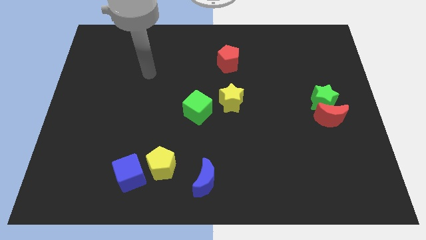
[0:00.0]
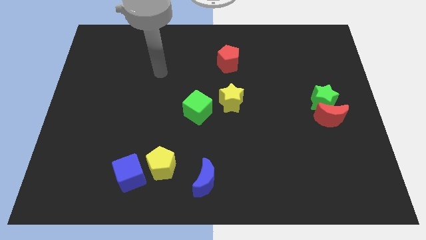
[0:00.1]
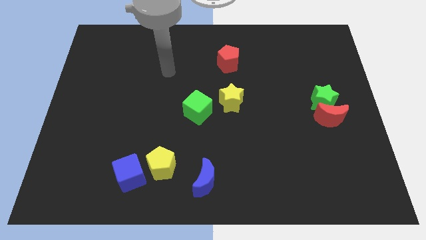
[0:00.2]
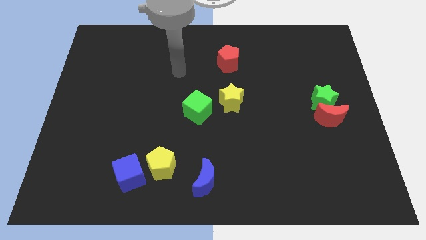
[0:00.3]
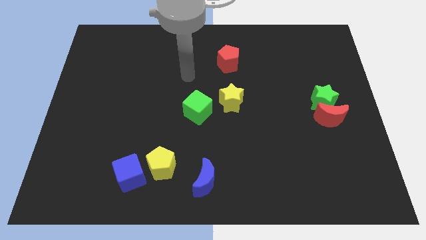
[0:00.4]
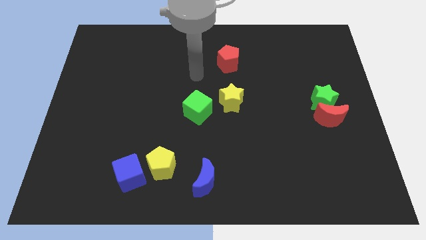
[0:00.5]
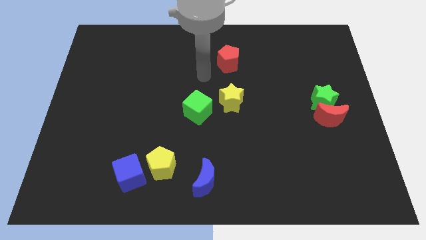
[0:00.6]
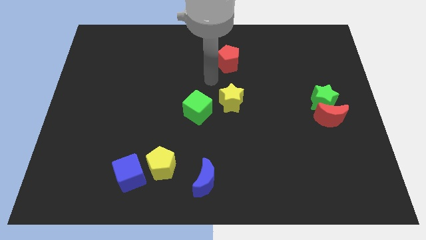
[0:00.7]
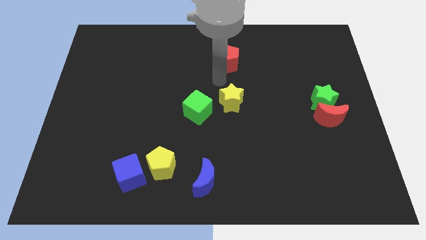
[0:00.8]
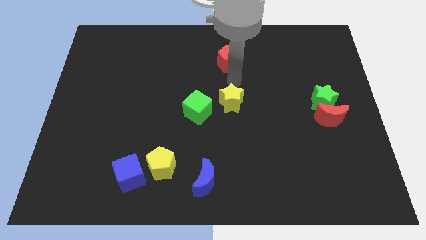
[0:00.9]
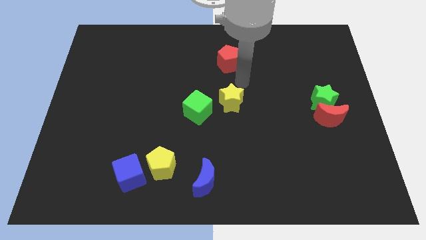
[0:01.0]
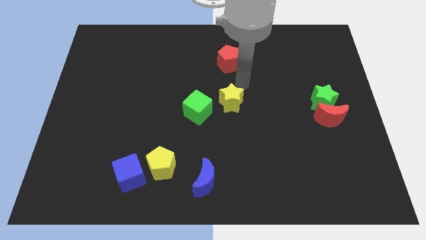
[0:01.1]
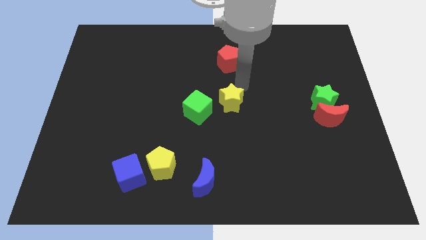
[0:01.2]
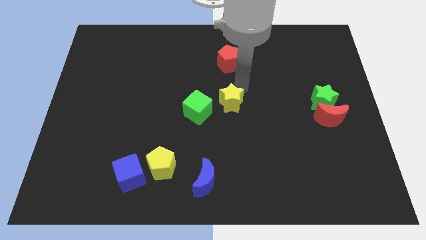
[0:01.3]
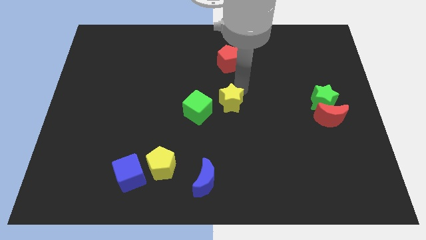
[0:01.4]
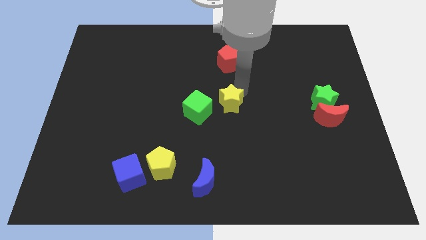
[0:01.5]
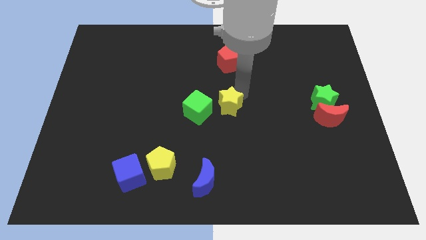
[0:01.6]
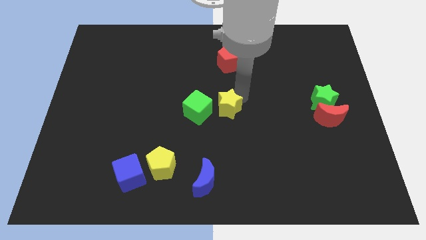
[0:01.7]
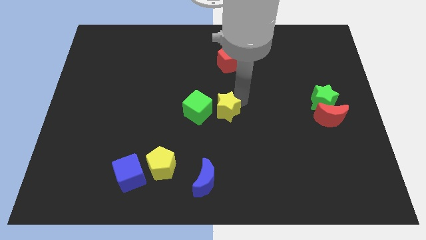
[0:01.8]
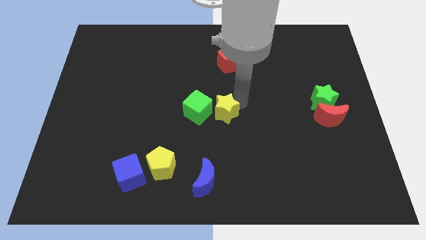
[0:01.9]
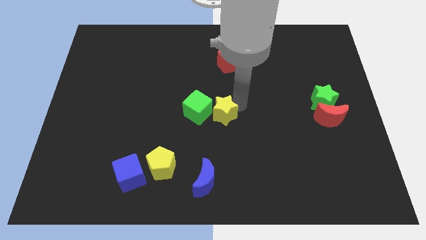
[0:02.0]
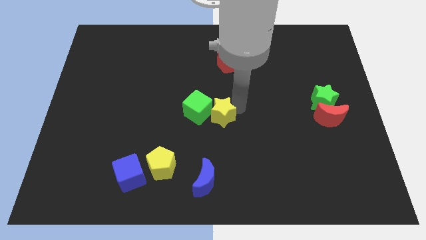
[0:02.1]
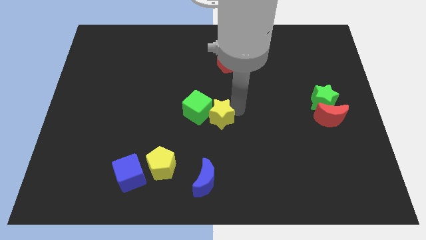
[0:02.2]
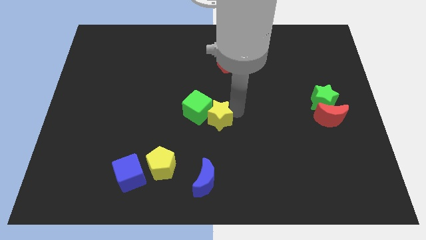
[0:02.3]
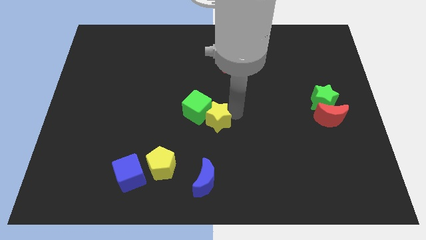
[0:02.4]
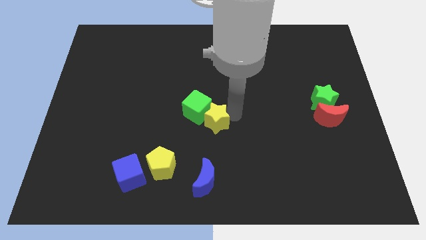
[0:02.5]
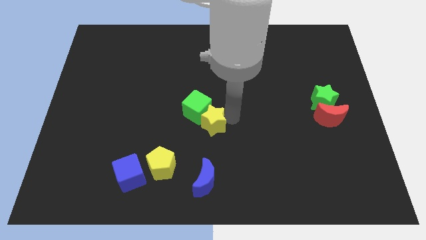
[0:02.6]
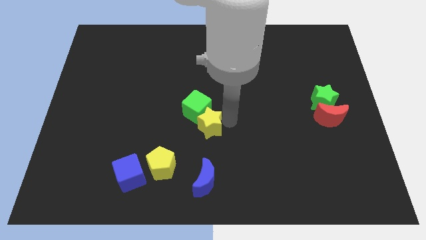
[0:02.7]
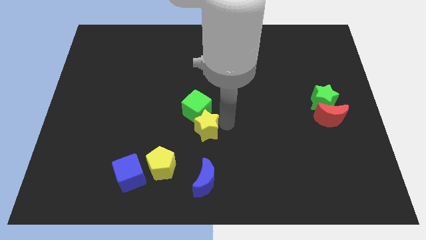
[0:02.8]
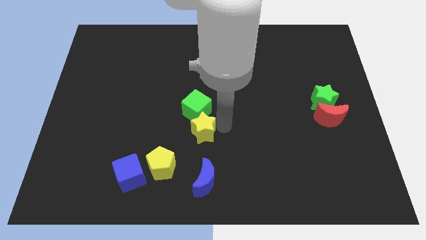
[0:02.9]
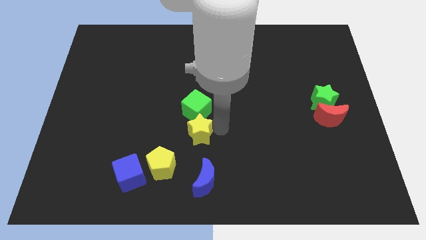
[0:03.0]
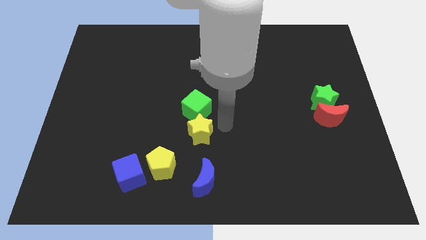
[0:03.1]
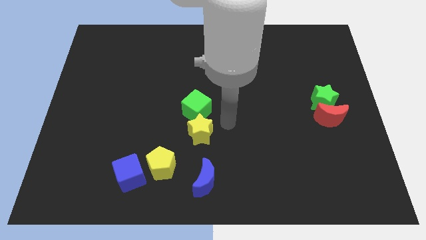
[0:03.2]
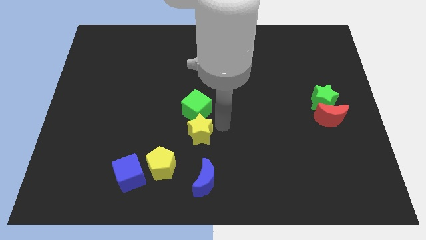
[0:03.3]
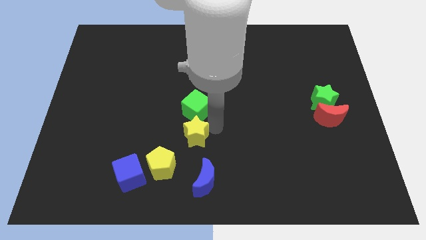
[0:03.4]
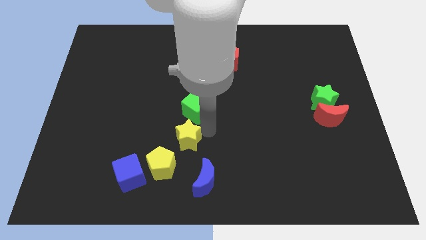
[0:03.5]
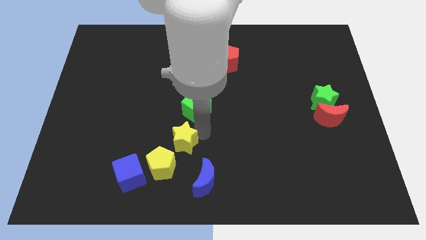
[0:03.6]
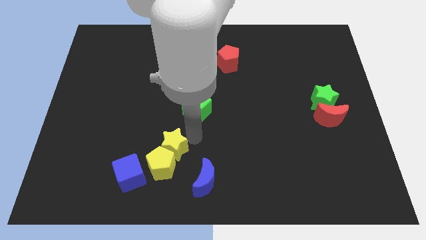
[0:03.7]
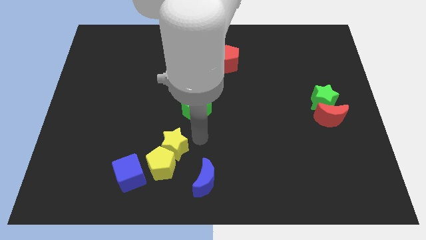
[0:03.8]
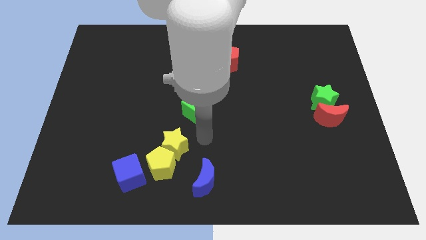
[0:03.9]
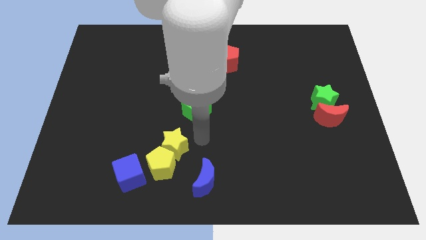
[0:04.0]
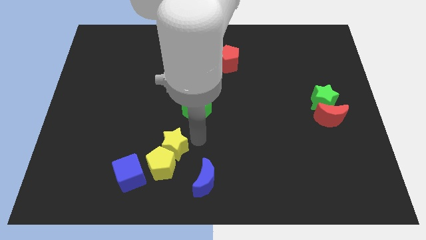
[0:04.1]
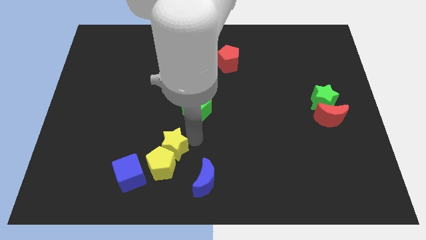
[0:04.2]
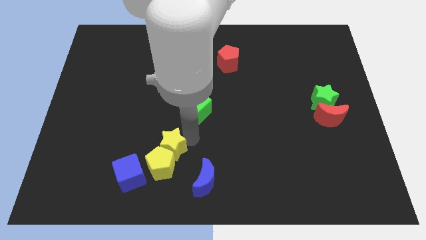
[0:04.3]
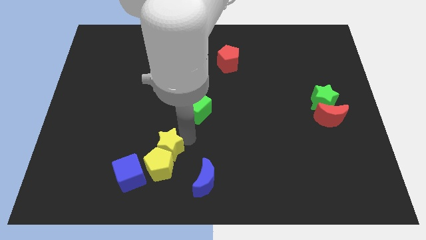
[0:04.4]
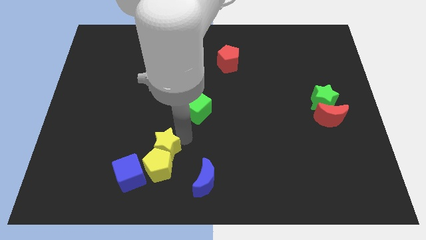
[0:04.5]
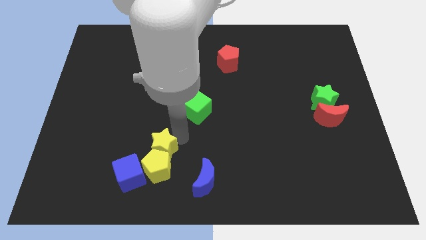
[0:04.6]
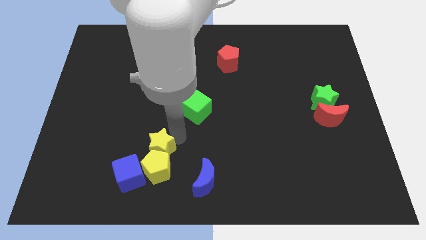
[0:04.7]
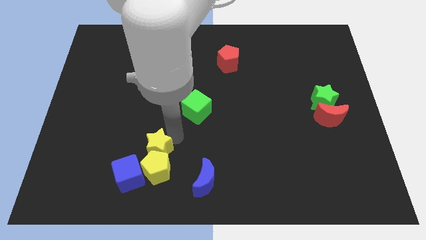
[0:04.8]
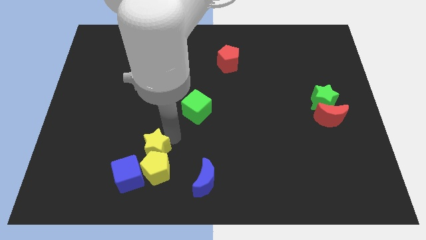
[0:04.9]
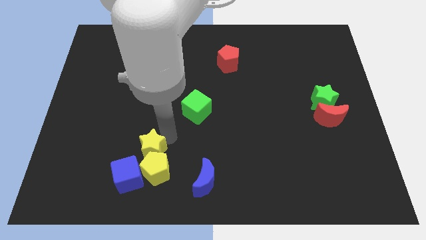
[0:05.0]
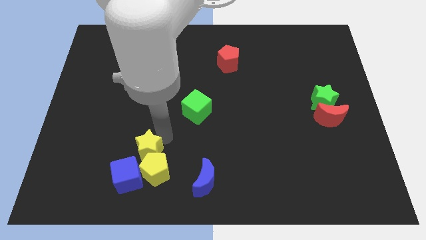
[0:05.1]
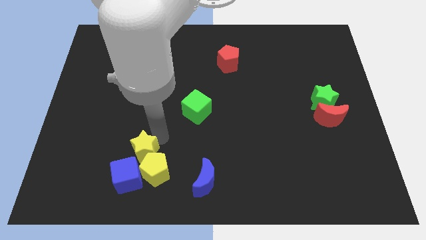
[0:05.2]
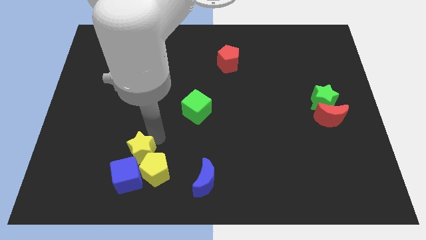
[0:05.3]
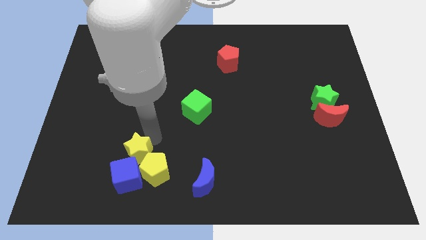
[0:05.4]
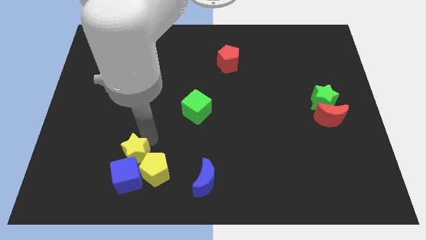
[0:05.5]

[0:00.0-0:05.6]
put the yellow star next to the blue cube

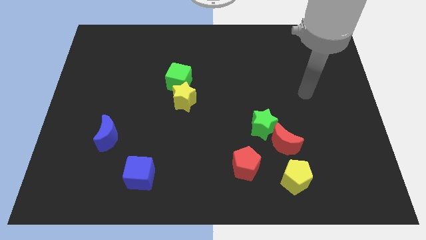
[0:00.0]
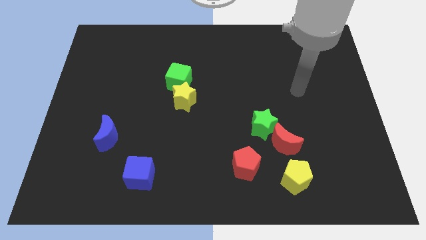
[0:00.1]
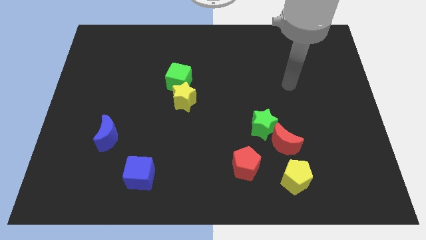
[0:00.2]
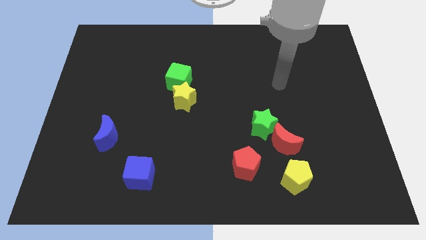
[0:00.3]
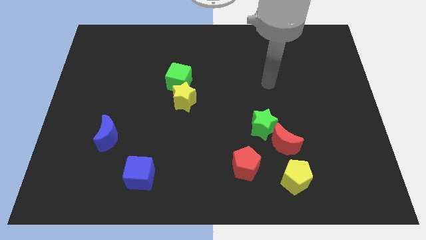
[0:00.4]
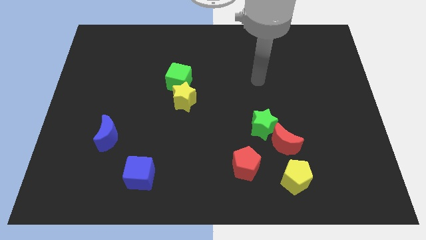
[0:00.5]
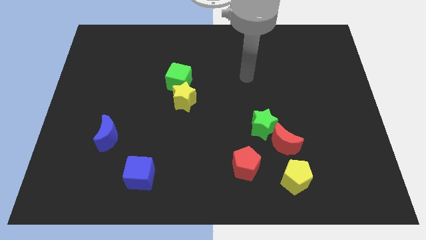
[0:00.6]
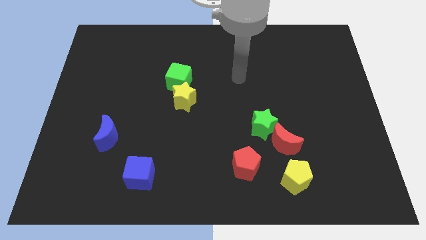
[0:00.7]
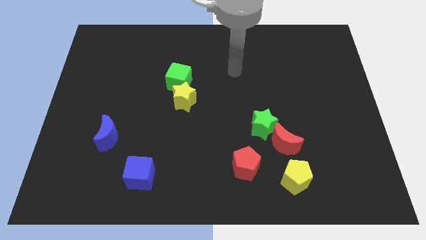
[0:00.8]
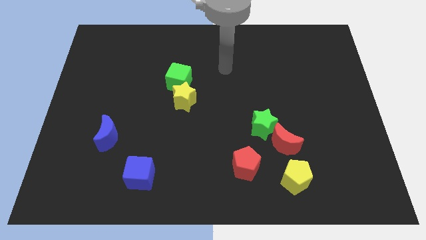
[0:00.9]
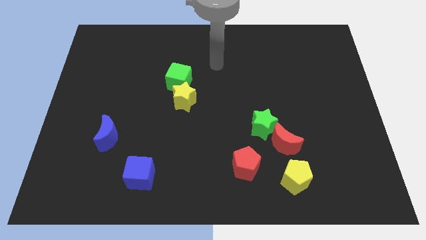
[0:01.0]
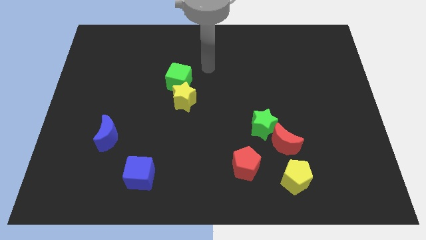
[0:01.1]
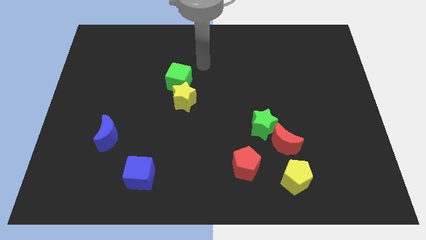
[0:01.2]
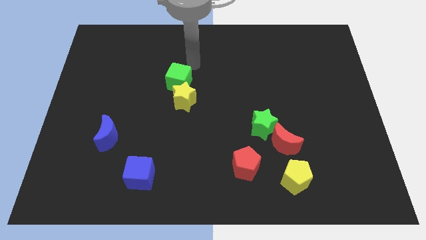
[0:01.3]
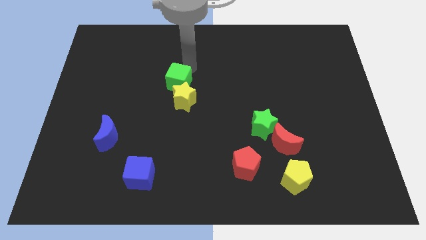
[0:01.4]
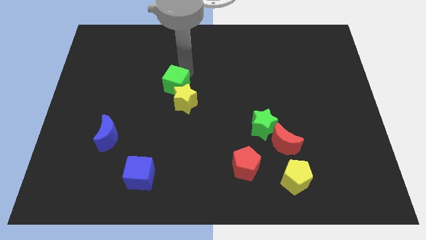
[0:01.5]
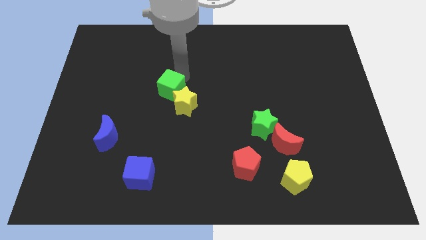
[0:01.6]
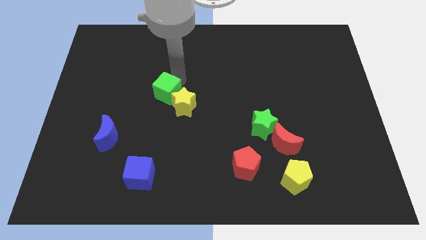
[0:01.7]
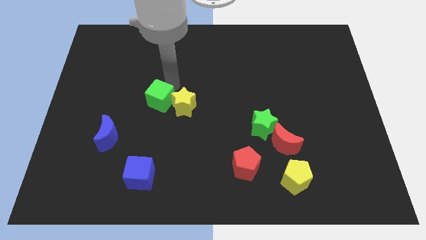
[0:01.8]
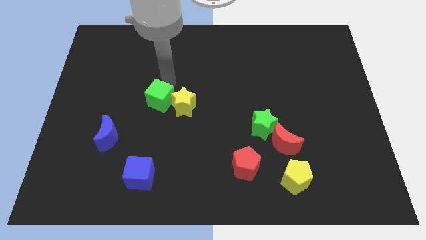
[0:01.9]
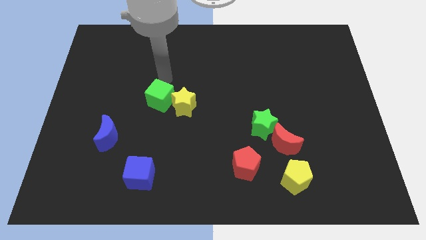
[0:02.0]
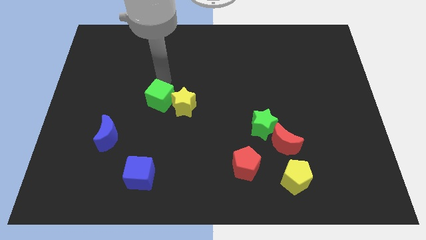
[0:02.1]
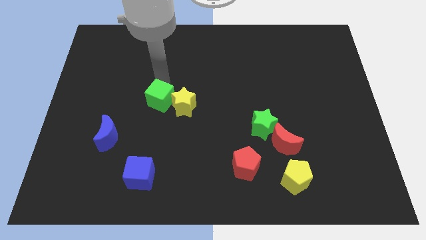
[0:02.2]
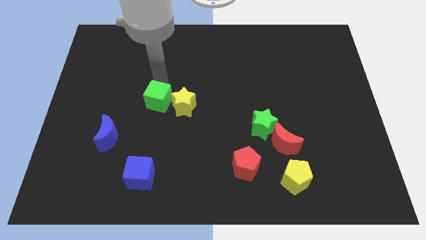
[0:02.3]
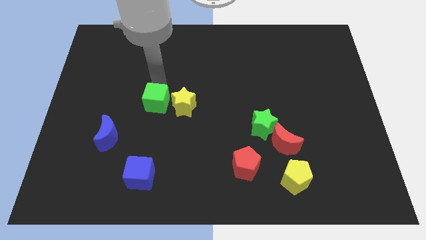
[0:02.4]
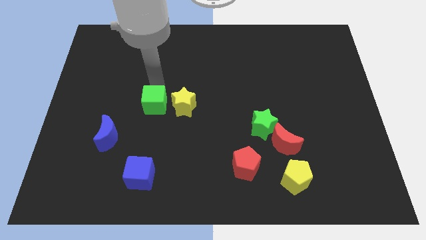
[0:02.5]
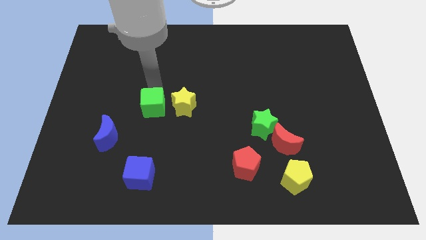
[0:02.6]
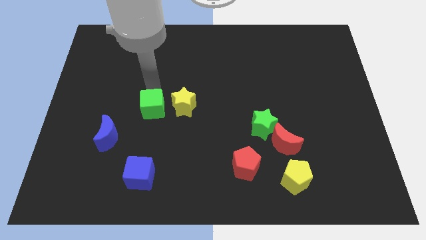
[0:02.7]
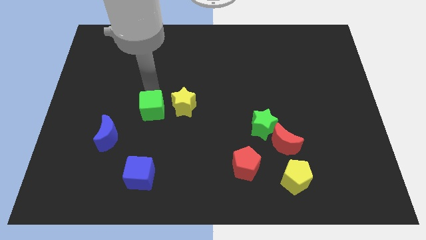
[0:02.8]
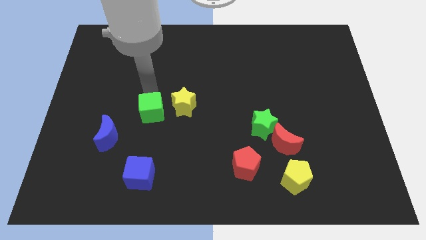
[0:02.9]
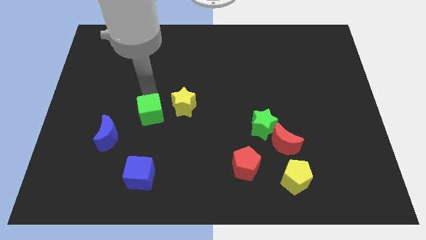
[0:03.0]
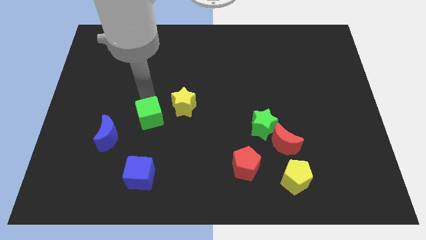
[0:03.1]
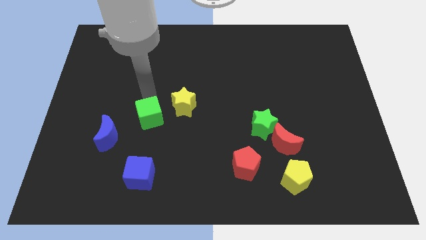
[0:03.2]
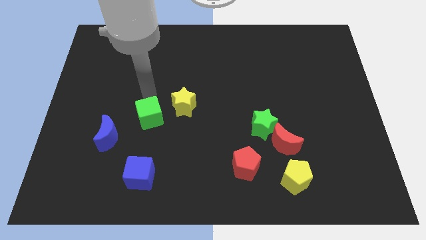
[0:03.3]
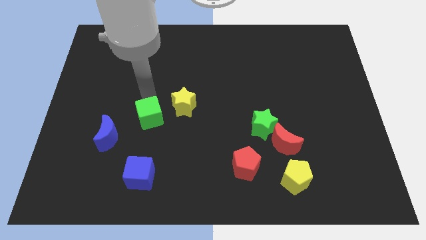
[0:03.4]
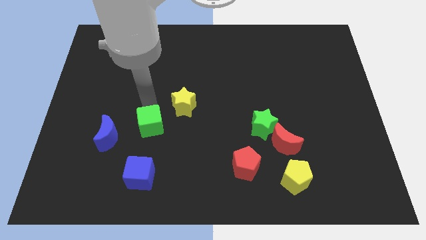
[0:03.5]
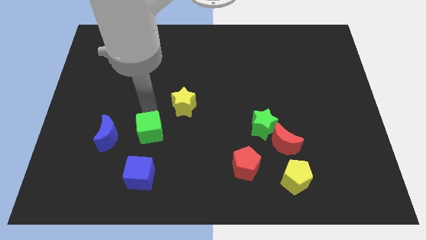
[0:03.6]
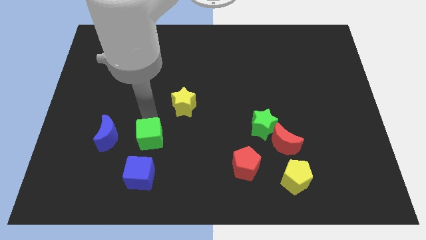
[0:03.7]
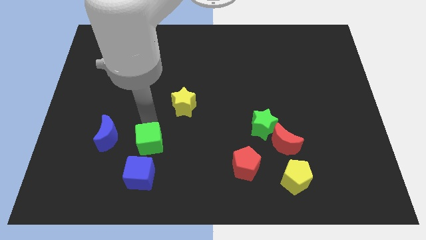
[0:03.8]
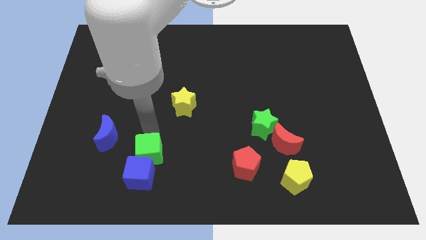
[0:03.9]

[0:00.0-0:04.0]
move the green cube close to the blue cube
